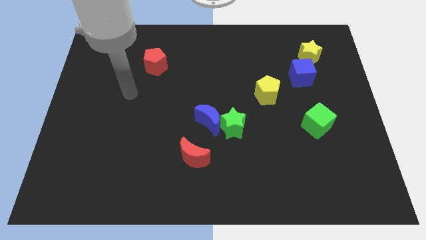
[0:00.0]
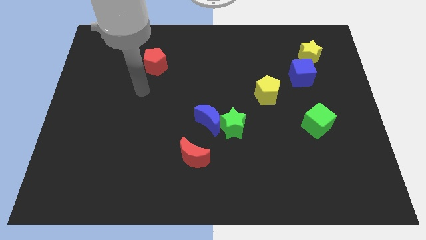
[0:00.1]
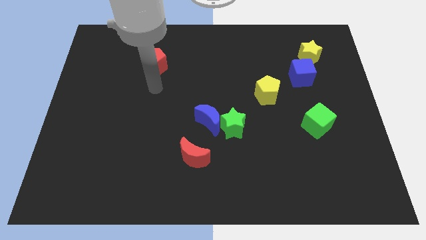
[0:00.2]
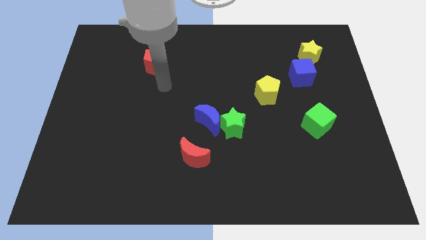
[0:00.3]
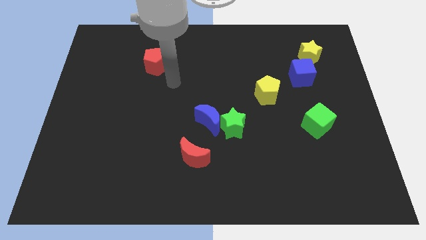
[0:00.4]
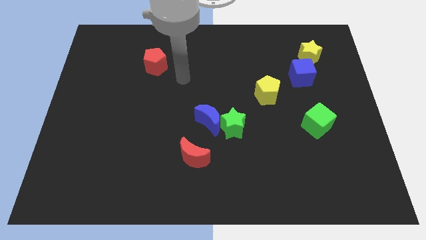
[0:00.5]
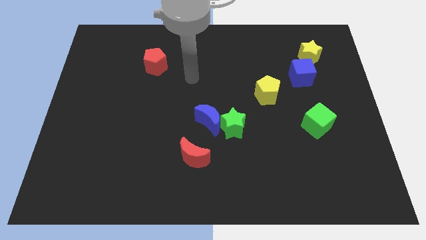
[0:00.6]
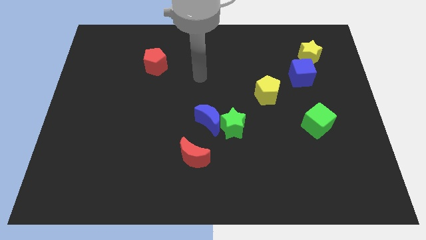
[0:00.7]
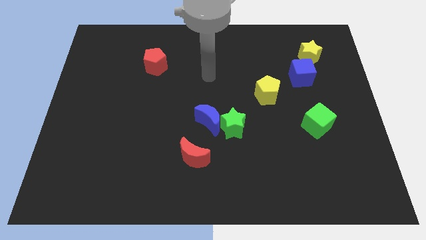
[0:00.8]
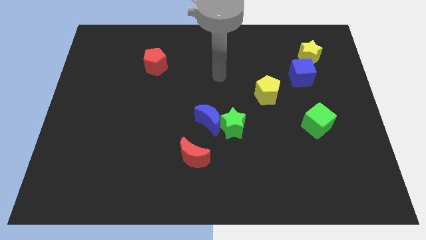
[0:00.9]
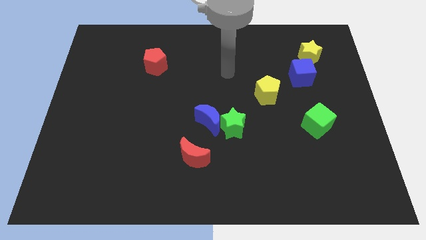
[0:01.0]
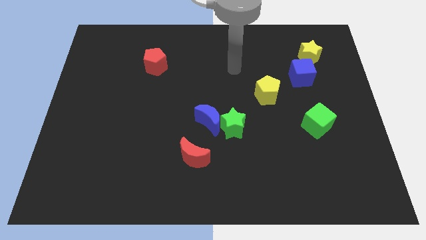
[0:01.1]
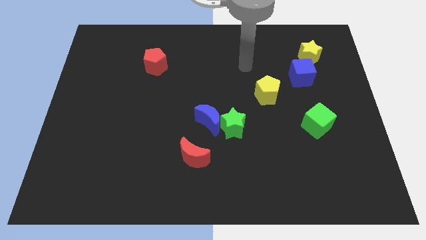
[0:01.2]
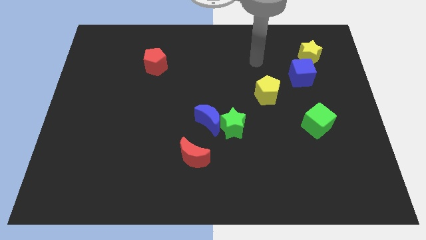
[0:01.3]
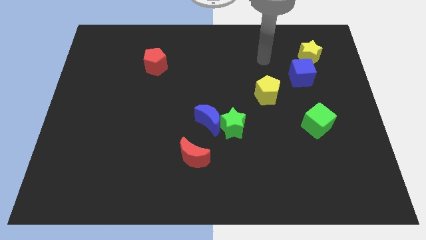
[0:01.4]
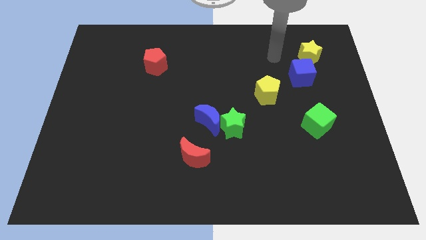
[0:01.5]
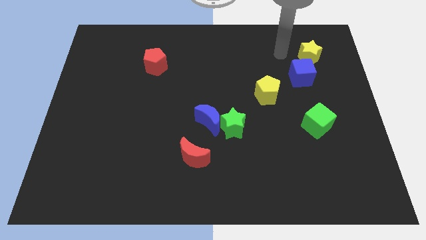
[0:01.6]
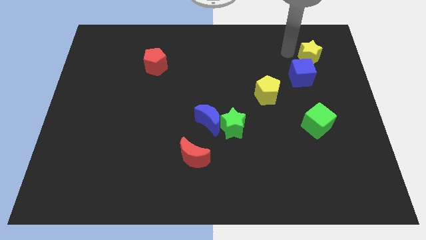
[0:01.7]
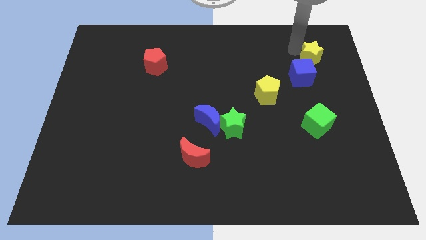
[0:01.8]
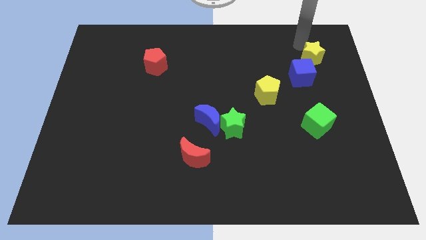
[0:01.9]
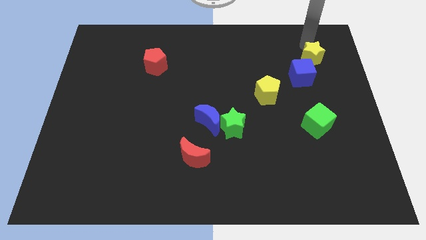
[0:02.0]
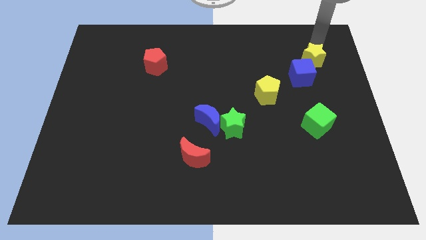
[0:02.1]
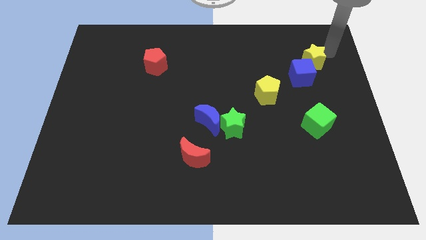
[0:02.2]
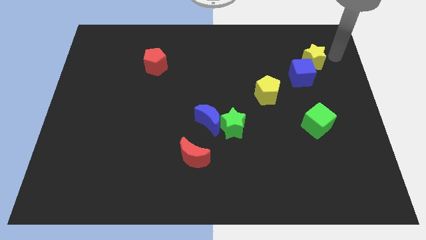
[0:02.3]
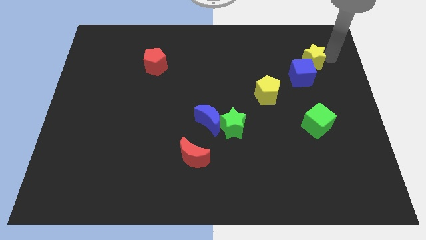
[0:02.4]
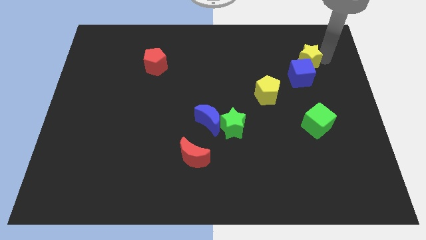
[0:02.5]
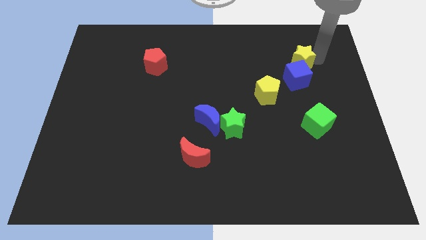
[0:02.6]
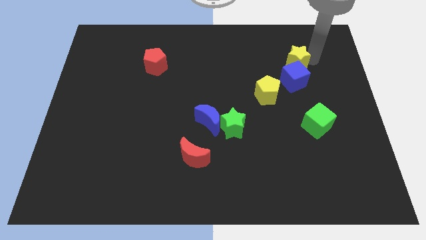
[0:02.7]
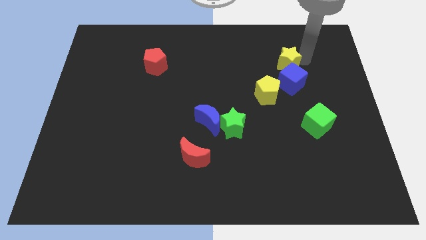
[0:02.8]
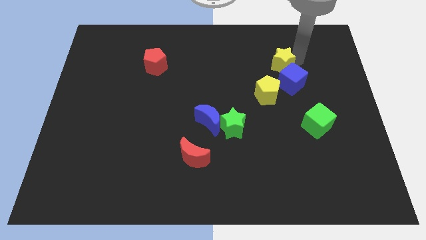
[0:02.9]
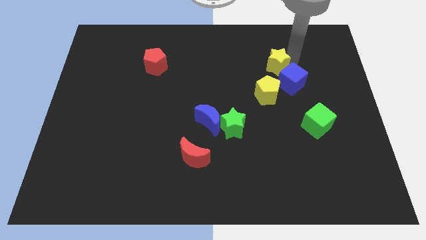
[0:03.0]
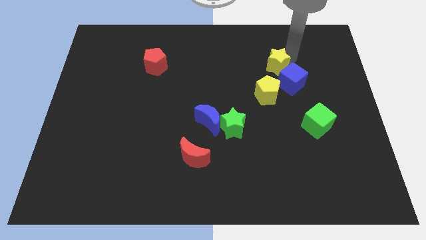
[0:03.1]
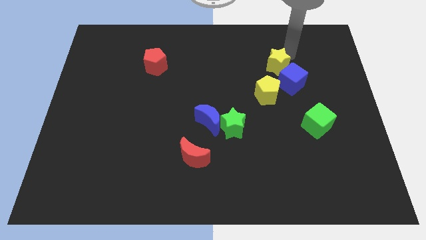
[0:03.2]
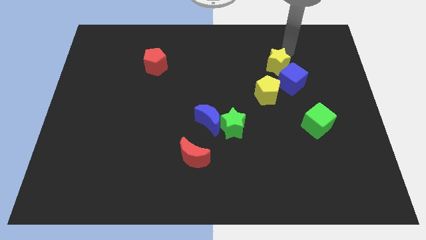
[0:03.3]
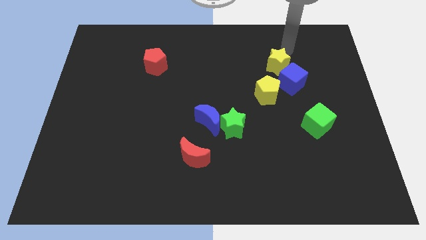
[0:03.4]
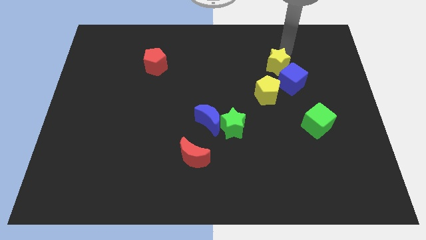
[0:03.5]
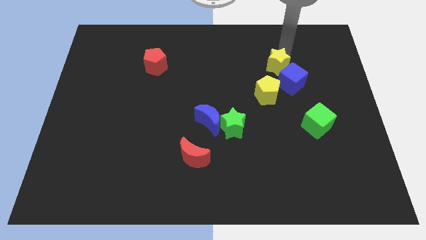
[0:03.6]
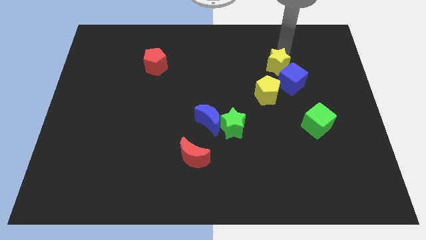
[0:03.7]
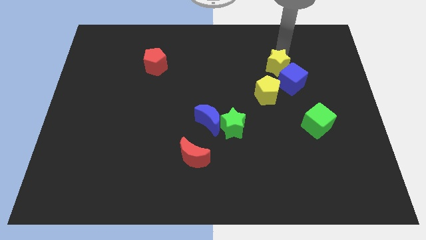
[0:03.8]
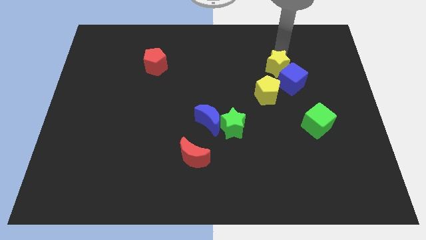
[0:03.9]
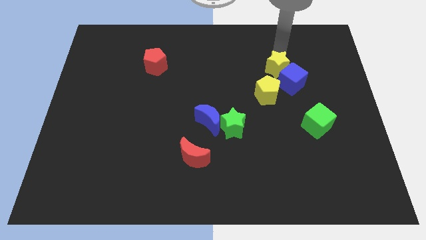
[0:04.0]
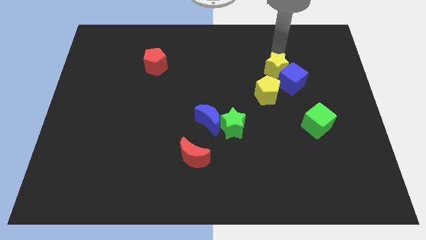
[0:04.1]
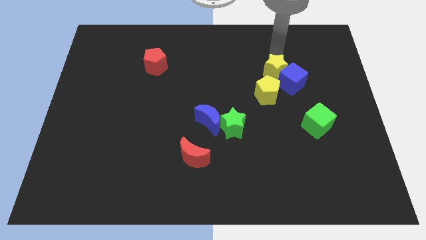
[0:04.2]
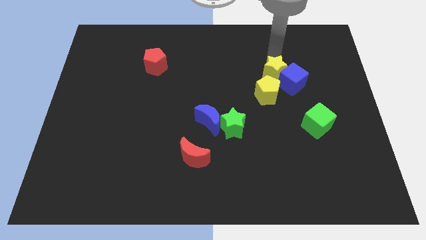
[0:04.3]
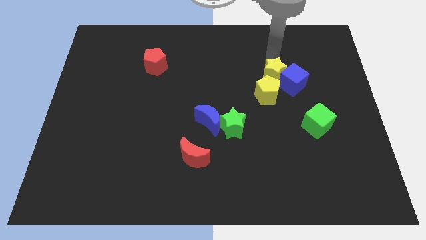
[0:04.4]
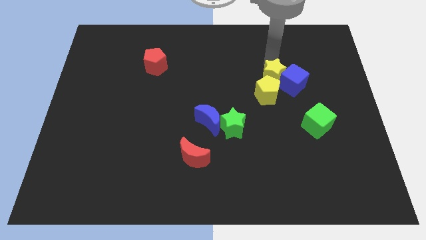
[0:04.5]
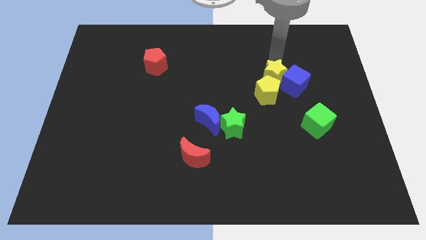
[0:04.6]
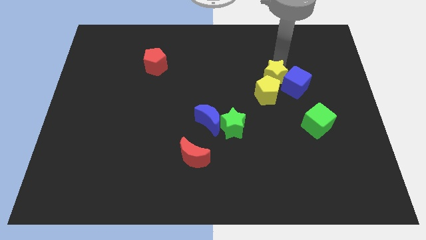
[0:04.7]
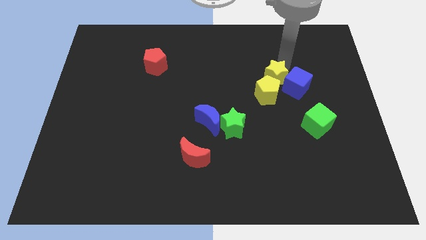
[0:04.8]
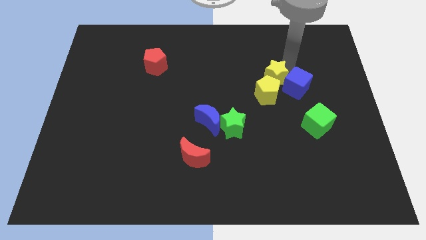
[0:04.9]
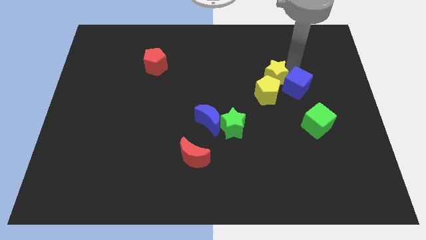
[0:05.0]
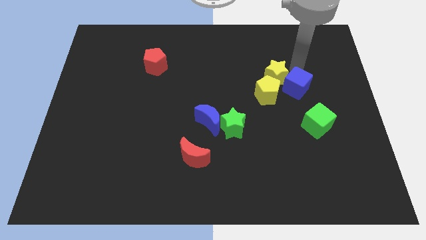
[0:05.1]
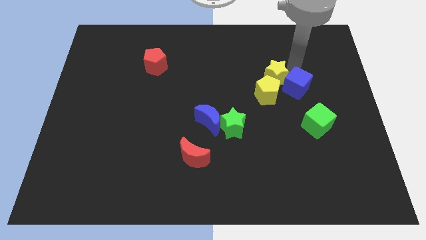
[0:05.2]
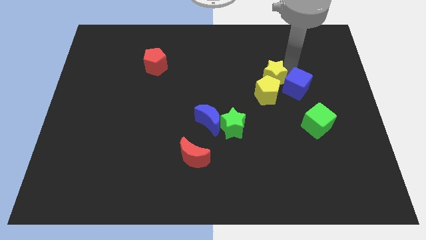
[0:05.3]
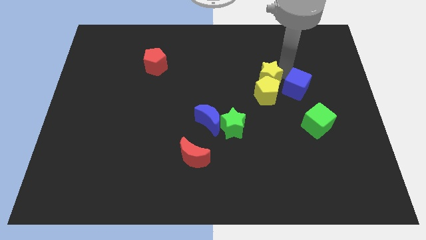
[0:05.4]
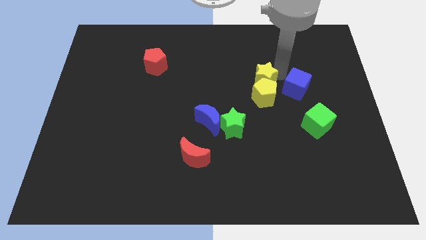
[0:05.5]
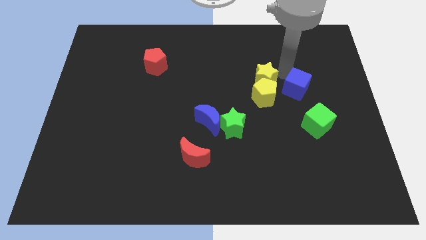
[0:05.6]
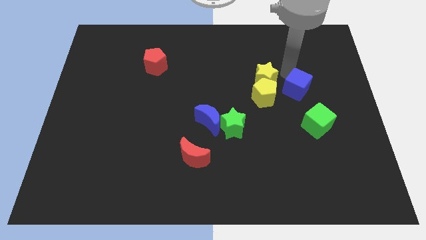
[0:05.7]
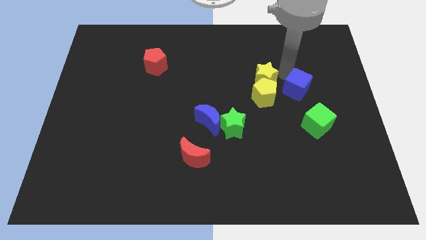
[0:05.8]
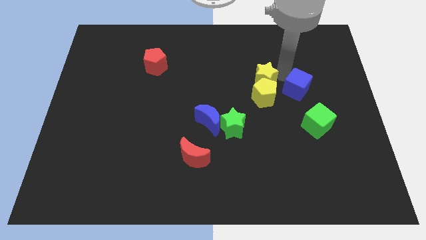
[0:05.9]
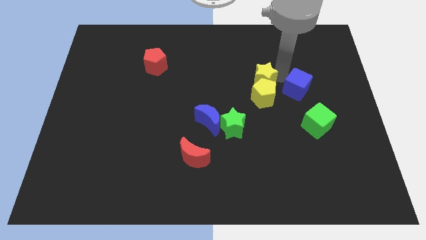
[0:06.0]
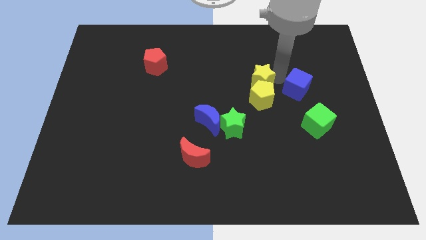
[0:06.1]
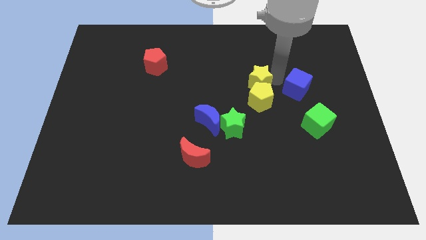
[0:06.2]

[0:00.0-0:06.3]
push the yellow star to the middle

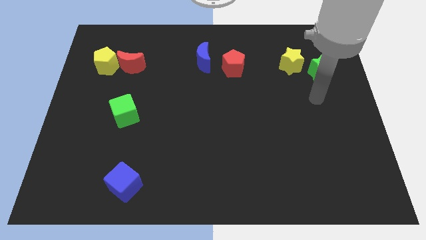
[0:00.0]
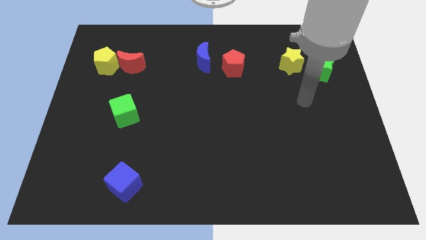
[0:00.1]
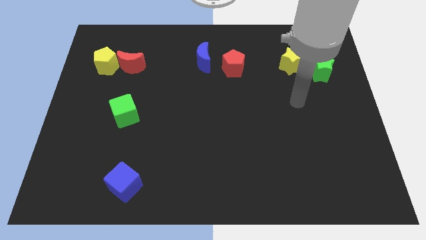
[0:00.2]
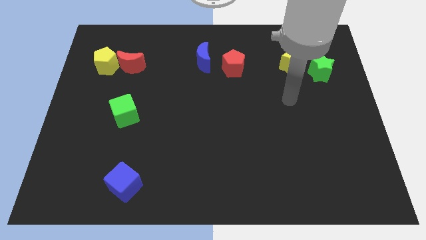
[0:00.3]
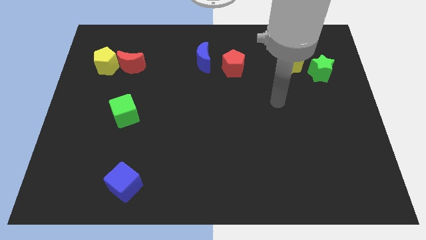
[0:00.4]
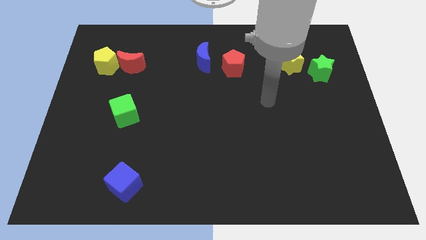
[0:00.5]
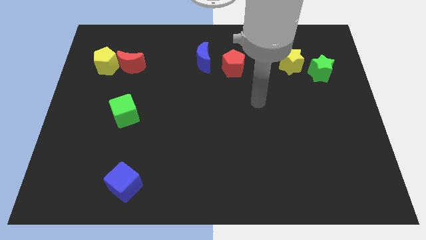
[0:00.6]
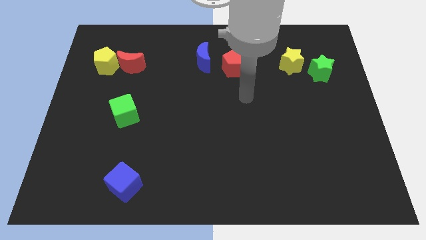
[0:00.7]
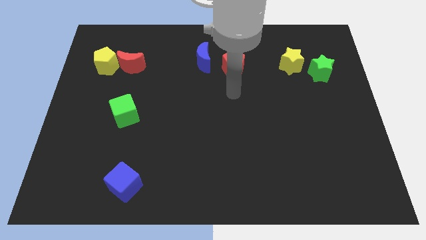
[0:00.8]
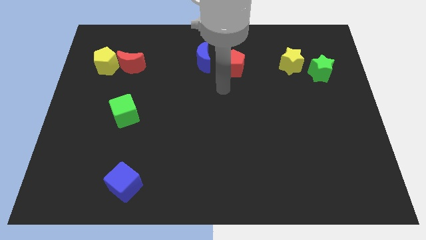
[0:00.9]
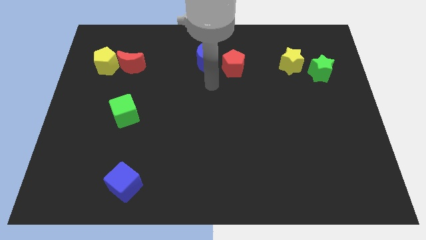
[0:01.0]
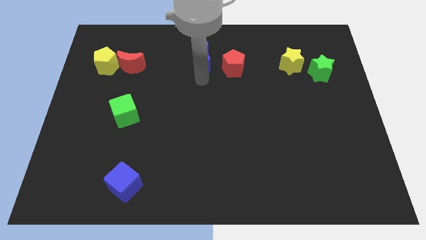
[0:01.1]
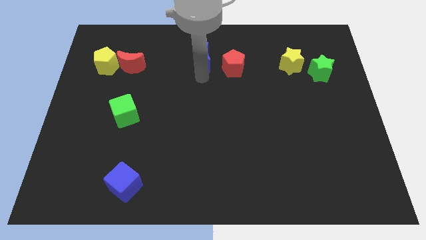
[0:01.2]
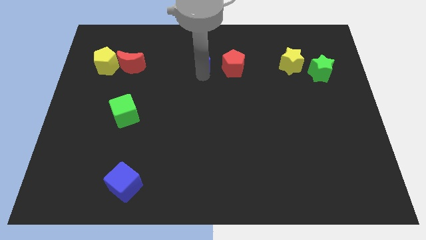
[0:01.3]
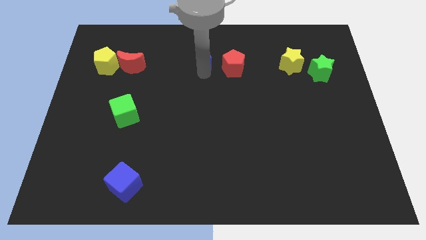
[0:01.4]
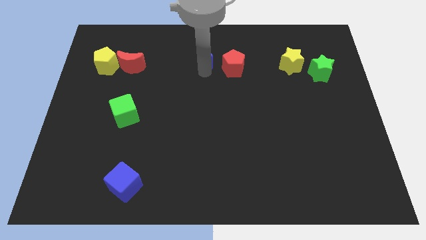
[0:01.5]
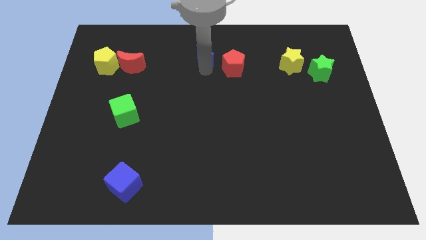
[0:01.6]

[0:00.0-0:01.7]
put the blue moon to the top
